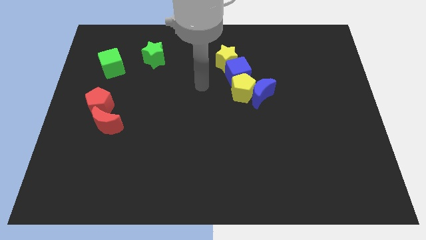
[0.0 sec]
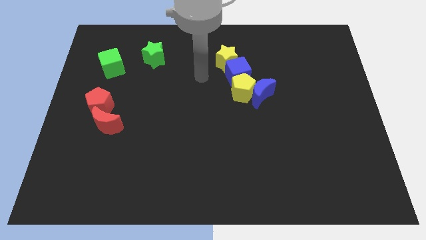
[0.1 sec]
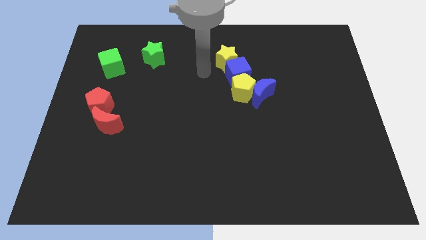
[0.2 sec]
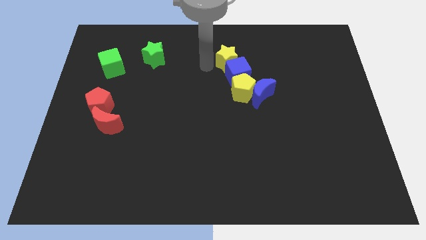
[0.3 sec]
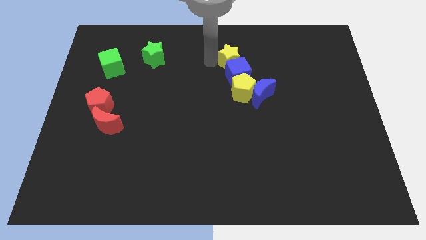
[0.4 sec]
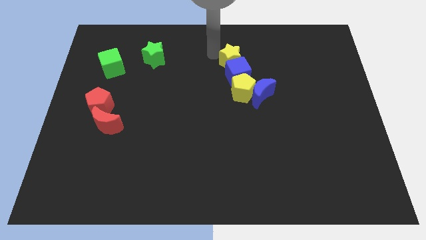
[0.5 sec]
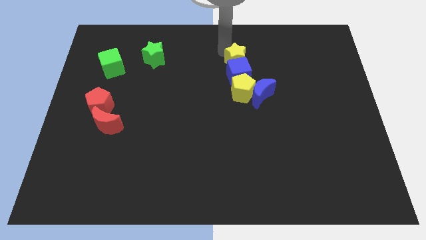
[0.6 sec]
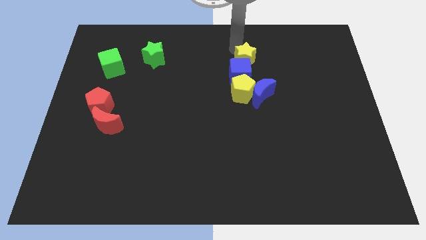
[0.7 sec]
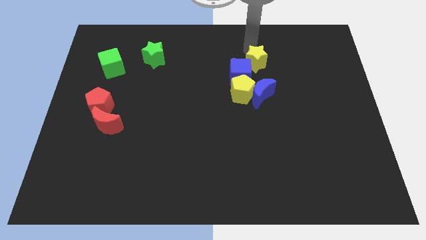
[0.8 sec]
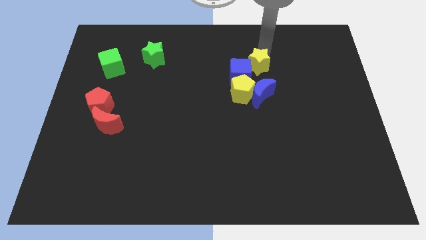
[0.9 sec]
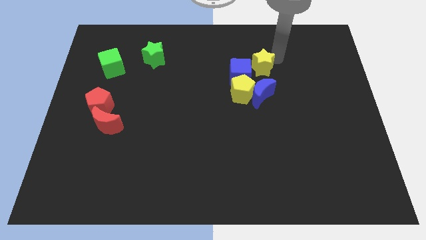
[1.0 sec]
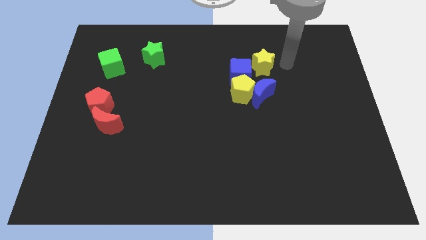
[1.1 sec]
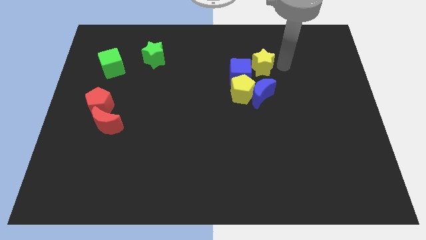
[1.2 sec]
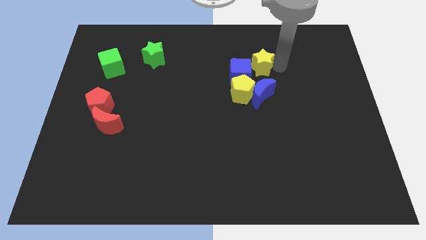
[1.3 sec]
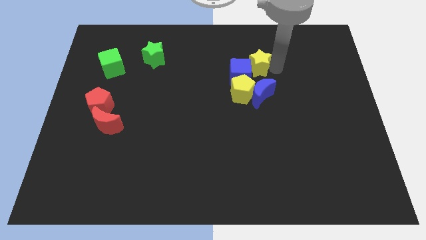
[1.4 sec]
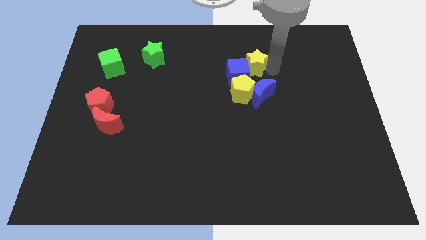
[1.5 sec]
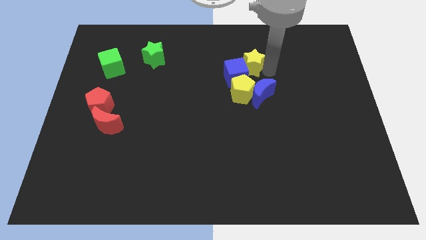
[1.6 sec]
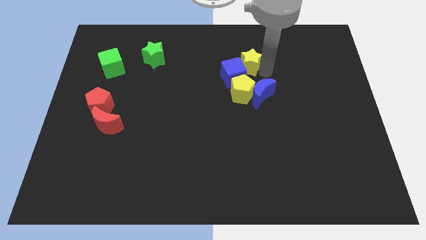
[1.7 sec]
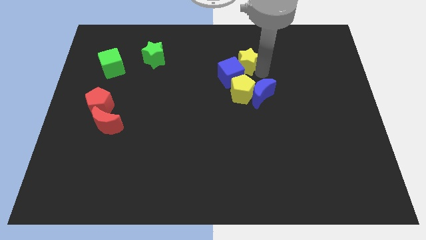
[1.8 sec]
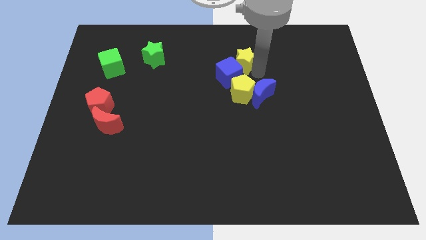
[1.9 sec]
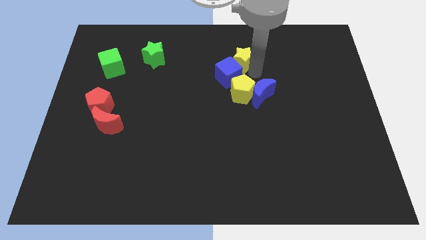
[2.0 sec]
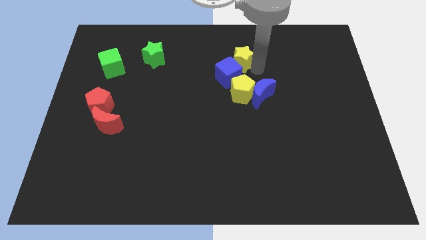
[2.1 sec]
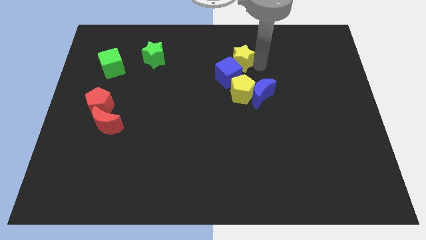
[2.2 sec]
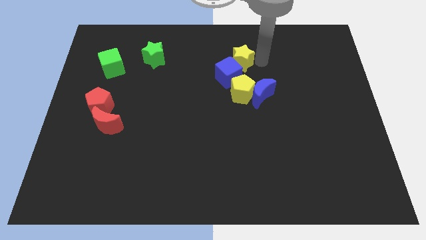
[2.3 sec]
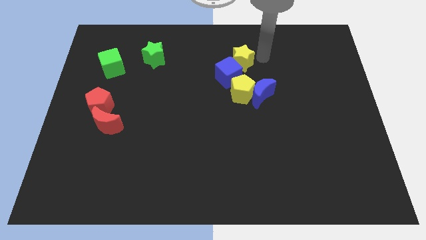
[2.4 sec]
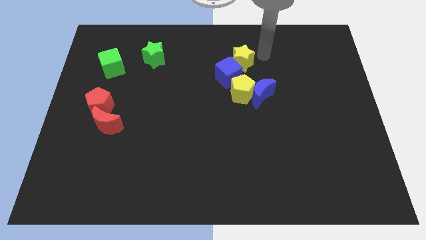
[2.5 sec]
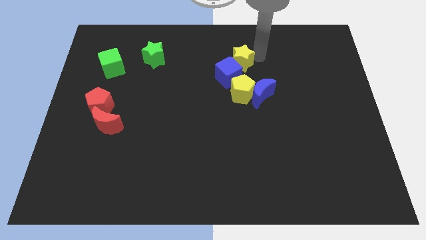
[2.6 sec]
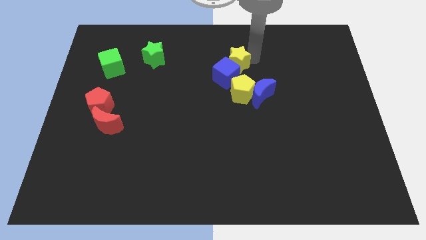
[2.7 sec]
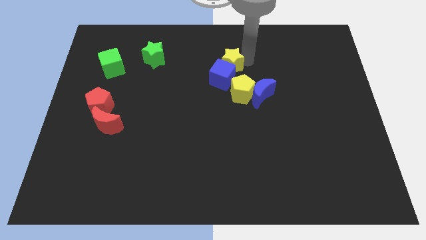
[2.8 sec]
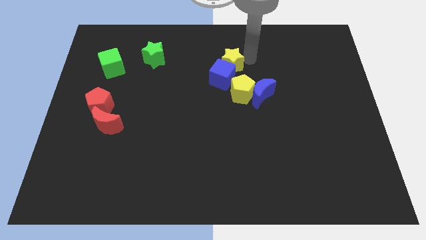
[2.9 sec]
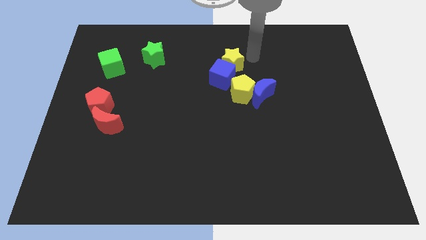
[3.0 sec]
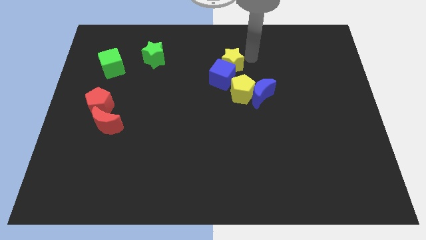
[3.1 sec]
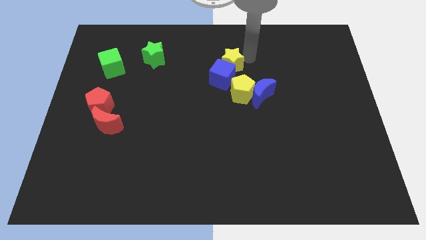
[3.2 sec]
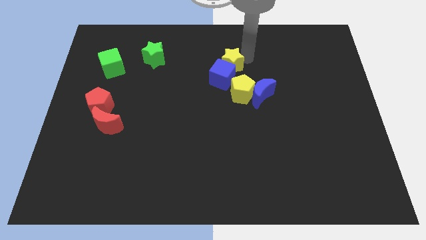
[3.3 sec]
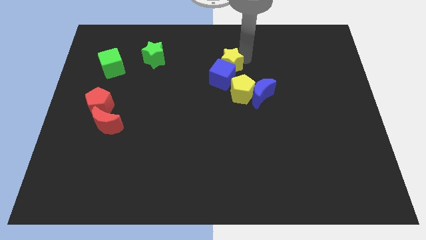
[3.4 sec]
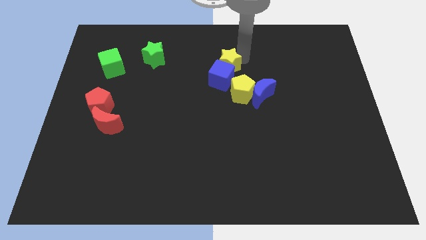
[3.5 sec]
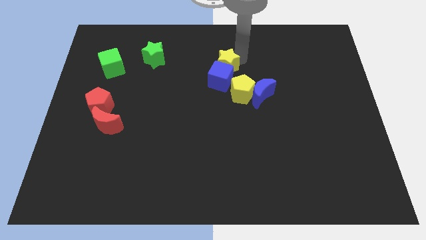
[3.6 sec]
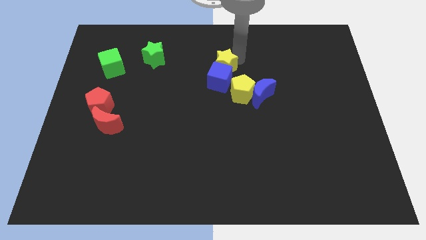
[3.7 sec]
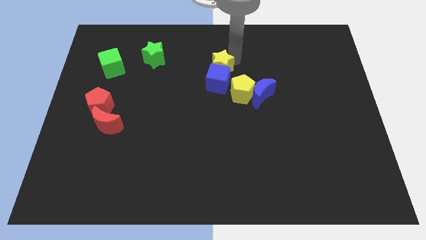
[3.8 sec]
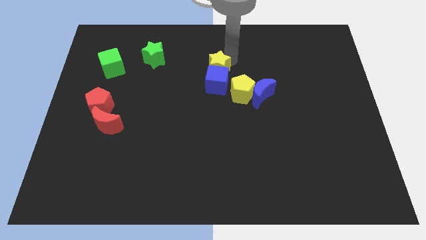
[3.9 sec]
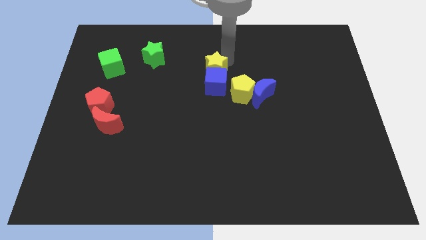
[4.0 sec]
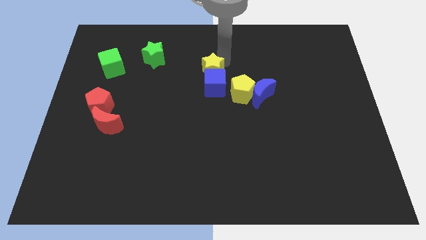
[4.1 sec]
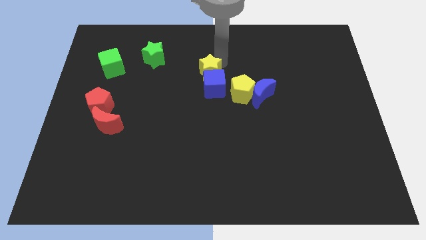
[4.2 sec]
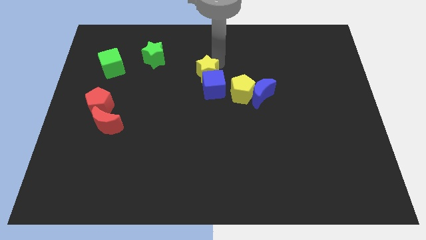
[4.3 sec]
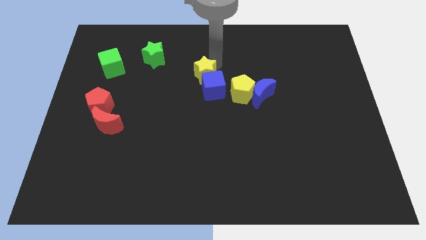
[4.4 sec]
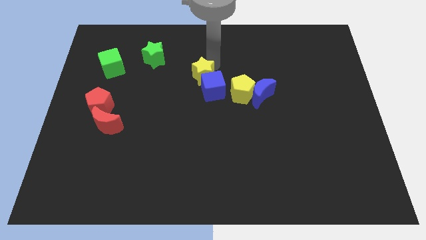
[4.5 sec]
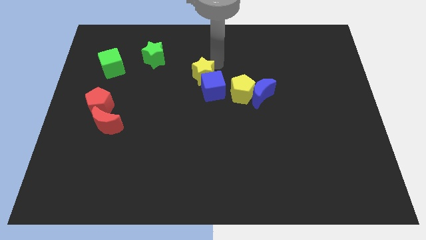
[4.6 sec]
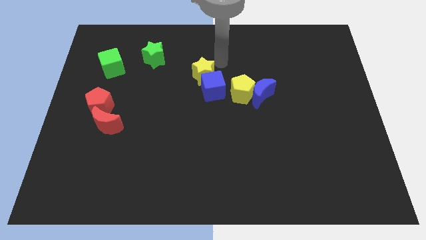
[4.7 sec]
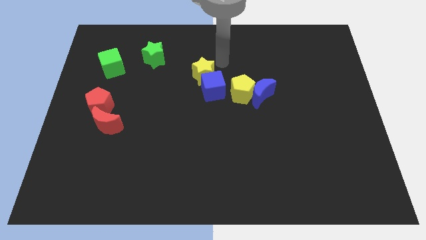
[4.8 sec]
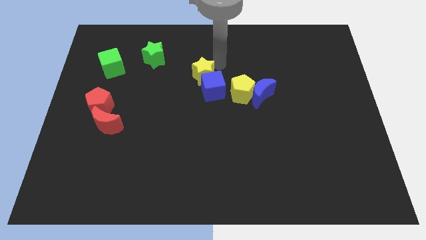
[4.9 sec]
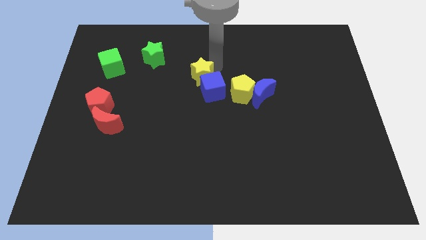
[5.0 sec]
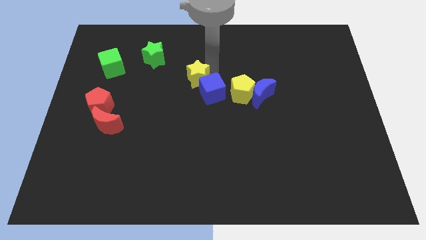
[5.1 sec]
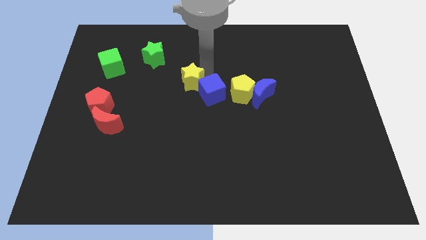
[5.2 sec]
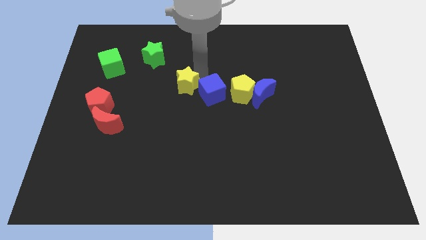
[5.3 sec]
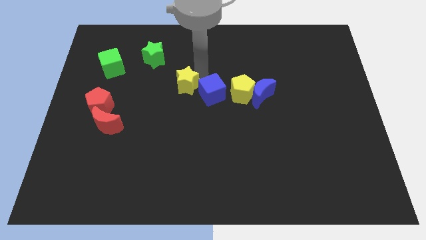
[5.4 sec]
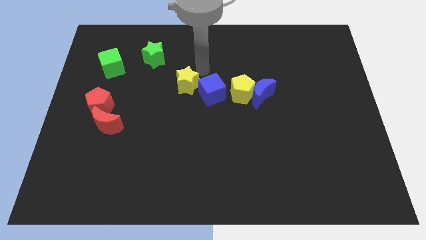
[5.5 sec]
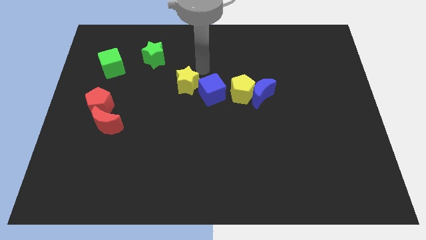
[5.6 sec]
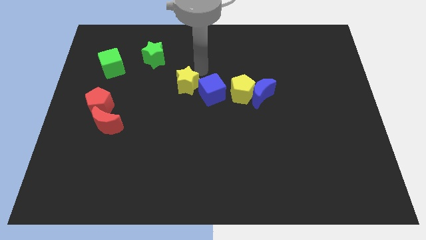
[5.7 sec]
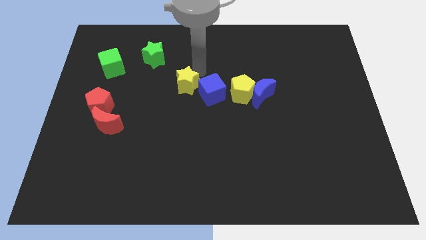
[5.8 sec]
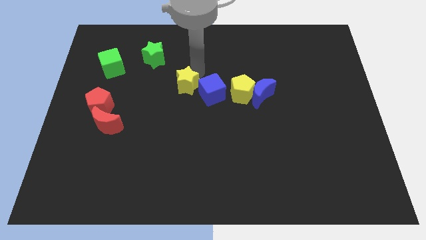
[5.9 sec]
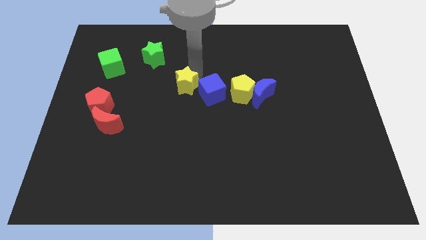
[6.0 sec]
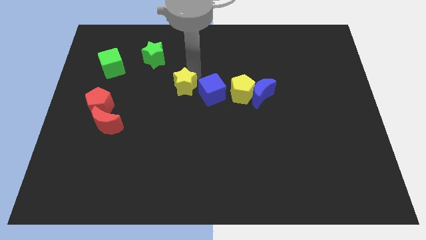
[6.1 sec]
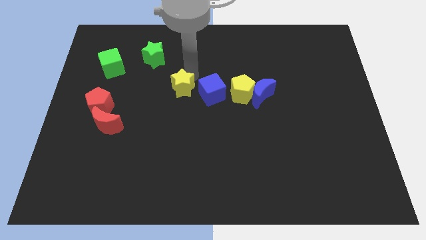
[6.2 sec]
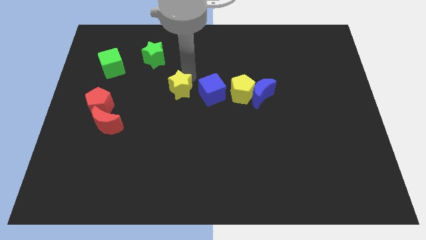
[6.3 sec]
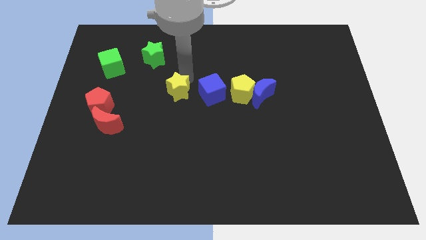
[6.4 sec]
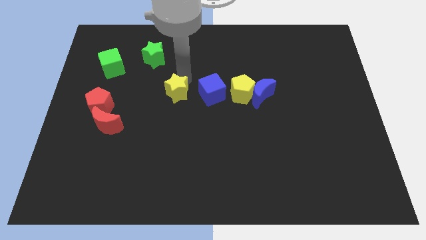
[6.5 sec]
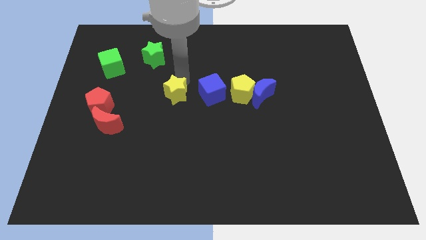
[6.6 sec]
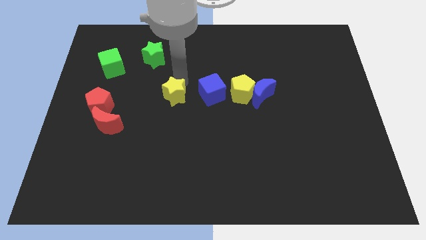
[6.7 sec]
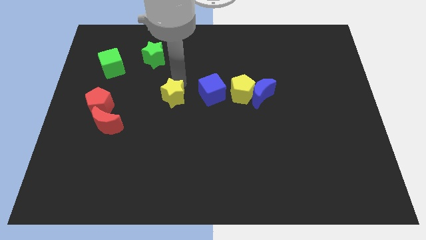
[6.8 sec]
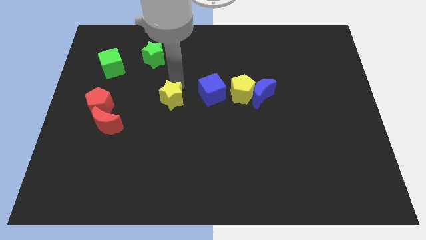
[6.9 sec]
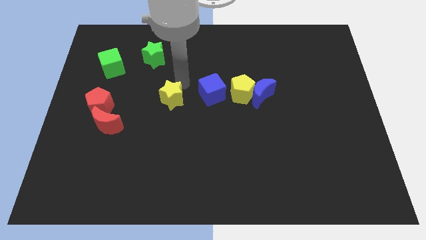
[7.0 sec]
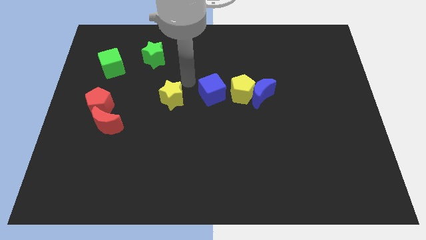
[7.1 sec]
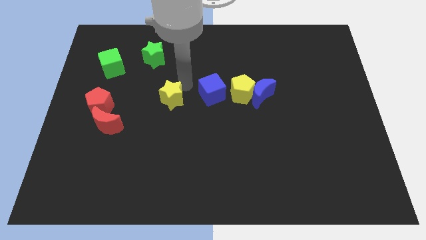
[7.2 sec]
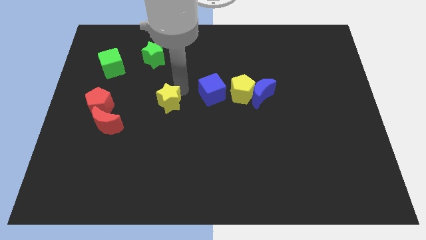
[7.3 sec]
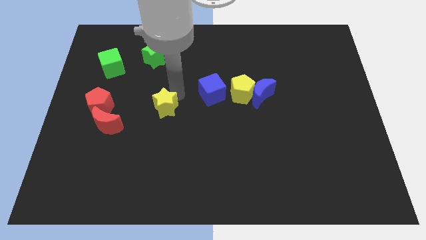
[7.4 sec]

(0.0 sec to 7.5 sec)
slide the yellow star diagonally downwards and left

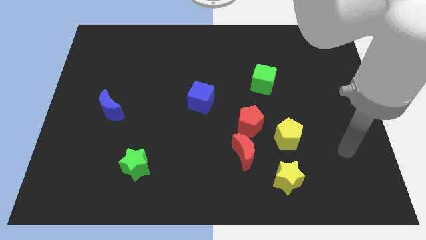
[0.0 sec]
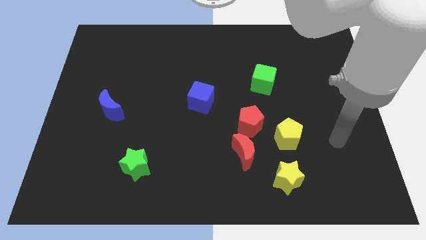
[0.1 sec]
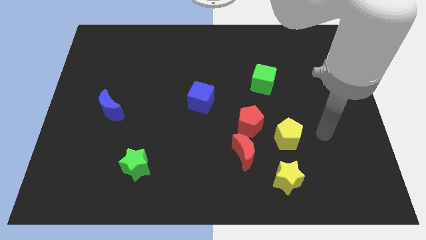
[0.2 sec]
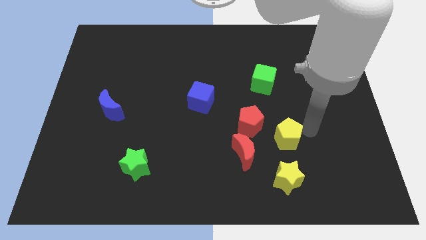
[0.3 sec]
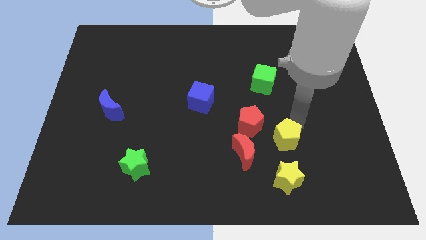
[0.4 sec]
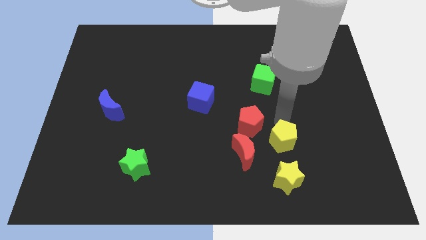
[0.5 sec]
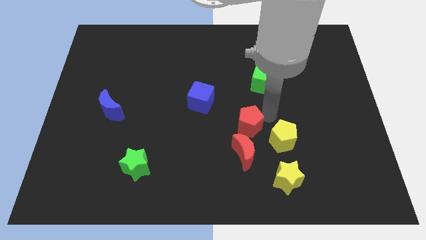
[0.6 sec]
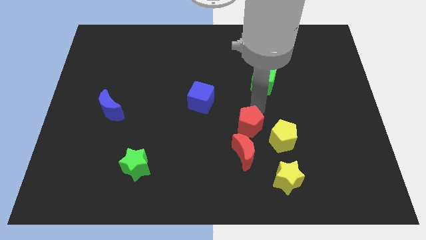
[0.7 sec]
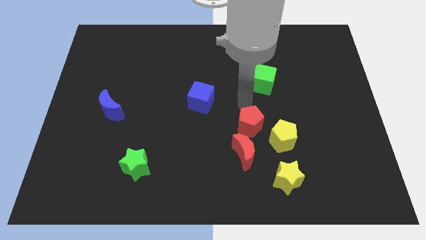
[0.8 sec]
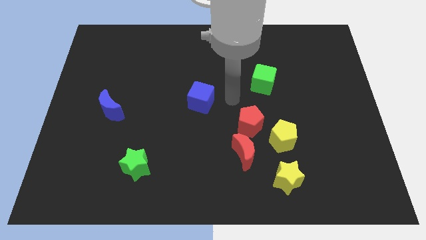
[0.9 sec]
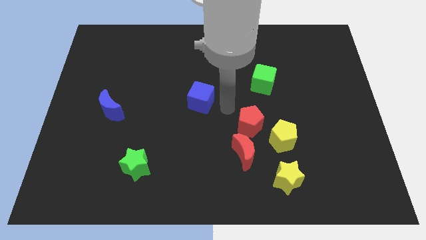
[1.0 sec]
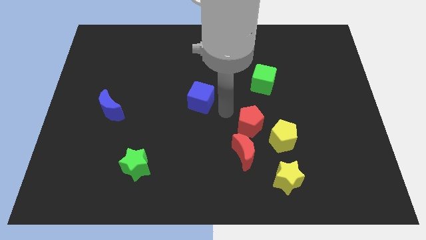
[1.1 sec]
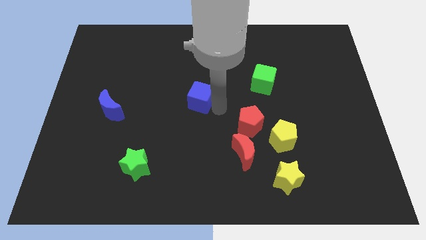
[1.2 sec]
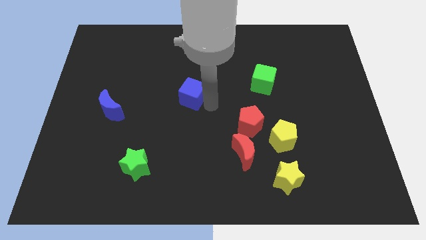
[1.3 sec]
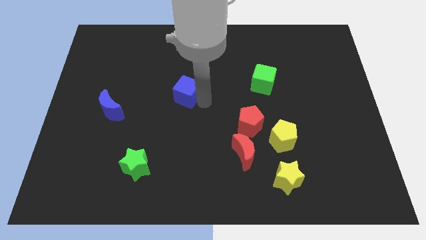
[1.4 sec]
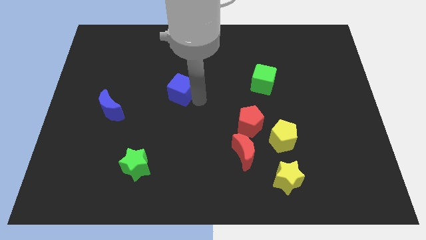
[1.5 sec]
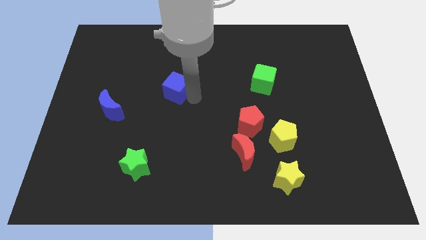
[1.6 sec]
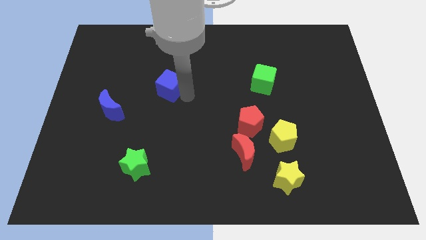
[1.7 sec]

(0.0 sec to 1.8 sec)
slightly move the blue cube upwards and then left
